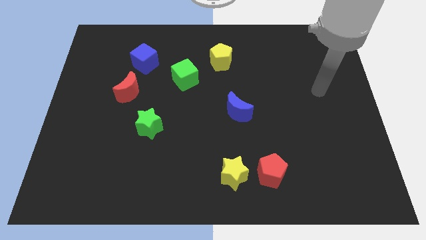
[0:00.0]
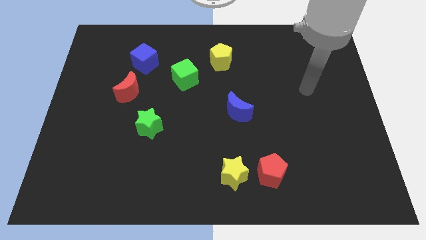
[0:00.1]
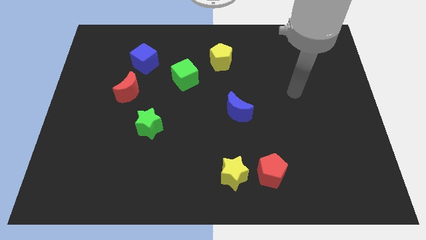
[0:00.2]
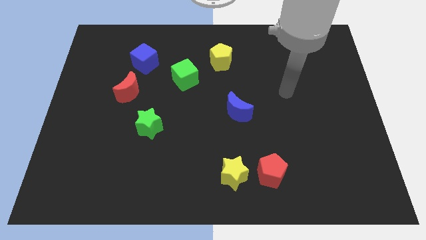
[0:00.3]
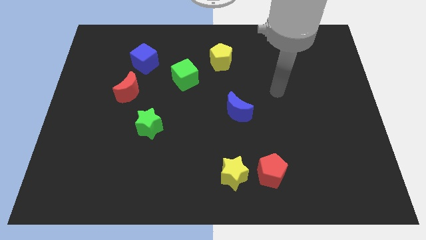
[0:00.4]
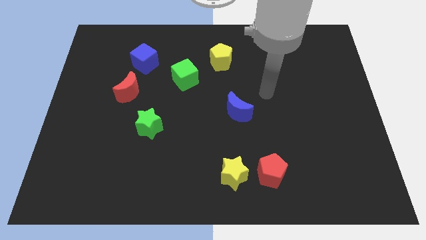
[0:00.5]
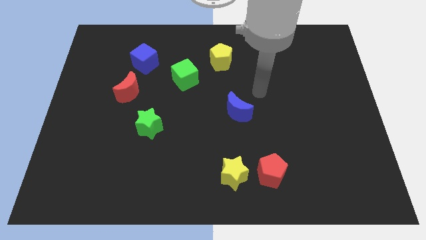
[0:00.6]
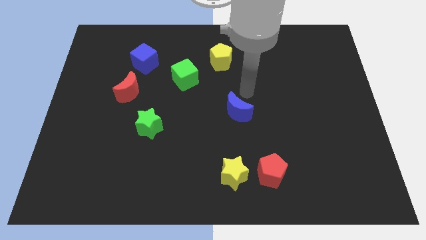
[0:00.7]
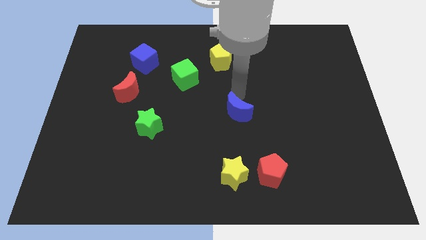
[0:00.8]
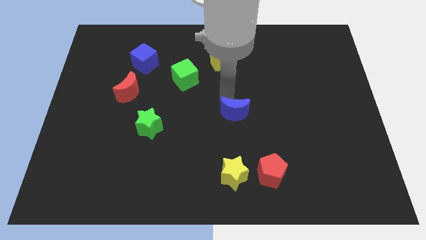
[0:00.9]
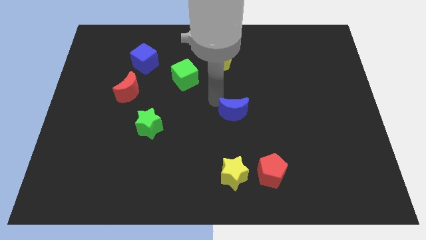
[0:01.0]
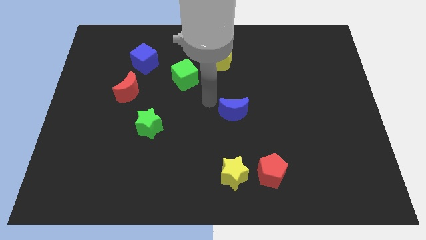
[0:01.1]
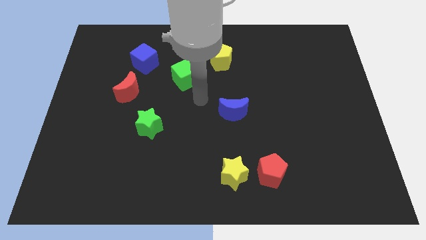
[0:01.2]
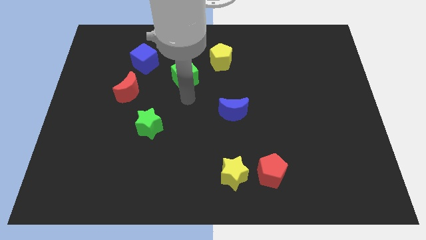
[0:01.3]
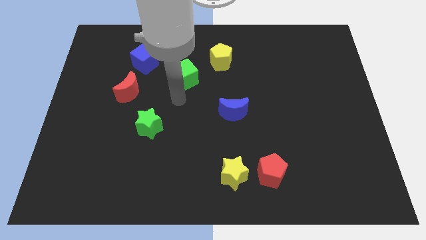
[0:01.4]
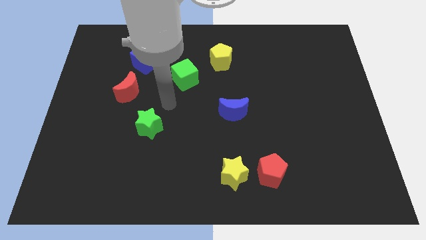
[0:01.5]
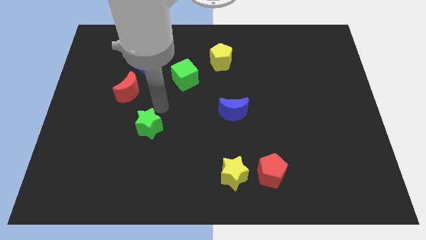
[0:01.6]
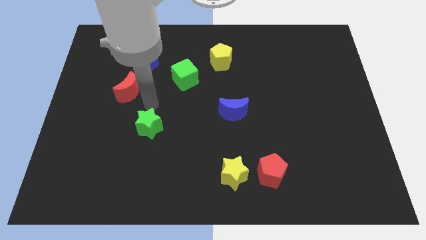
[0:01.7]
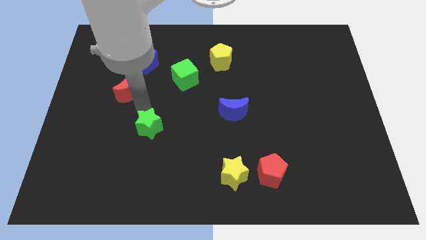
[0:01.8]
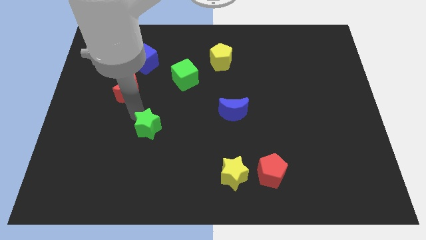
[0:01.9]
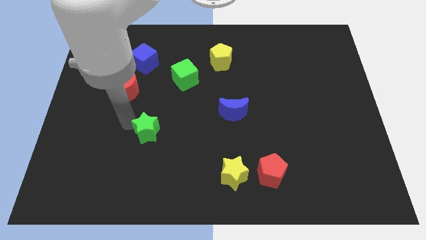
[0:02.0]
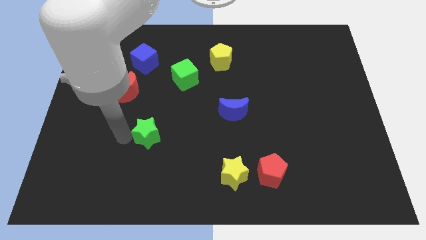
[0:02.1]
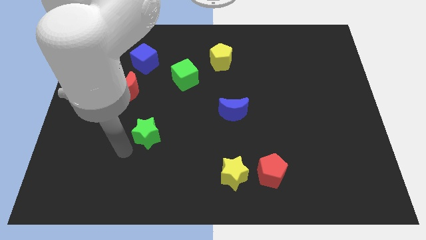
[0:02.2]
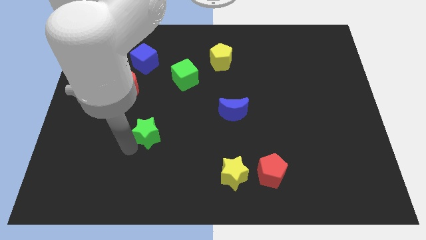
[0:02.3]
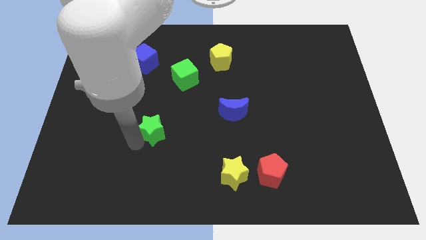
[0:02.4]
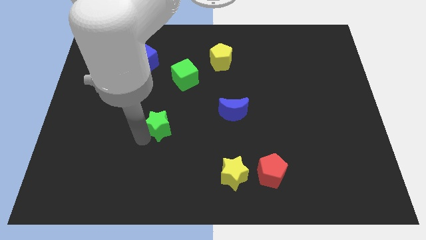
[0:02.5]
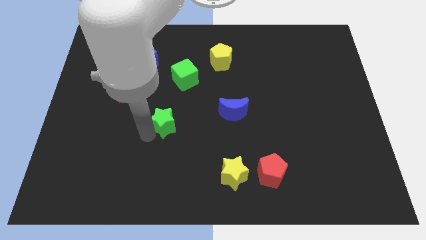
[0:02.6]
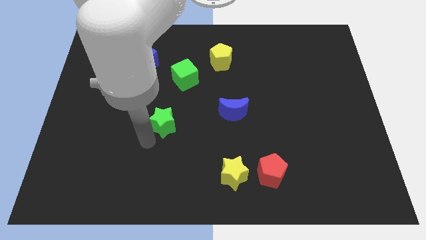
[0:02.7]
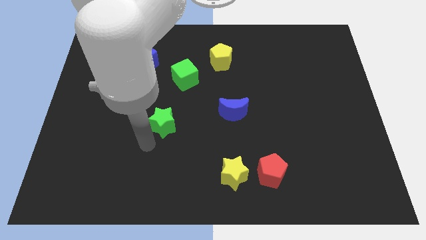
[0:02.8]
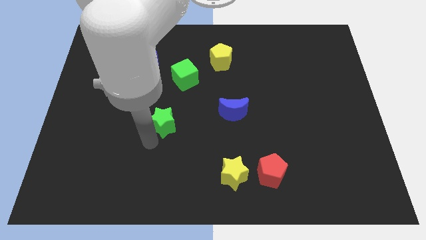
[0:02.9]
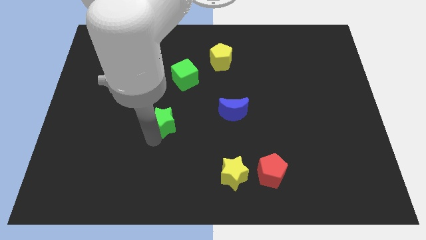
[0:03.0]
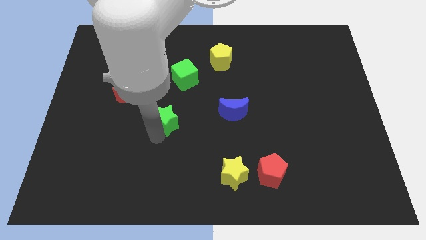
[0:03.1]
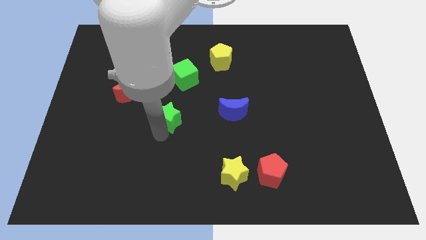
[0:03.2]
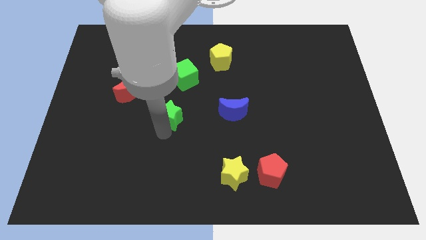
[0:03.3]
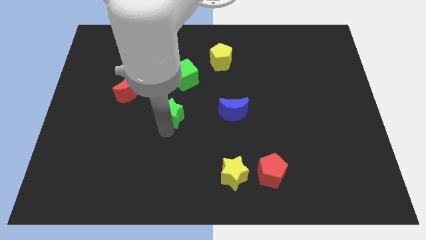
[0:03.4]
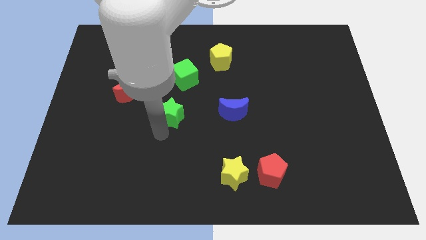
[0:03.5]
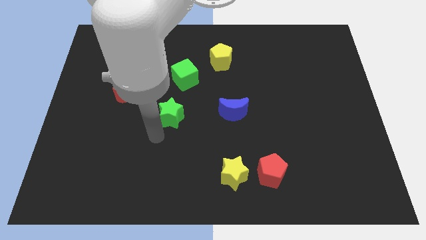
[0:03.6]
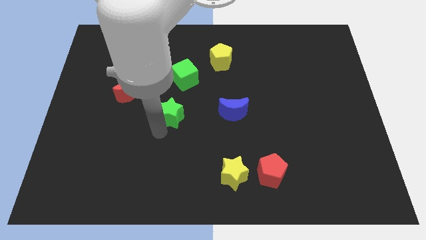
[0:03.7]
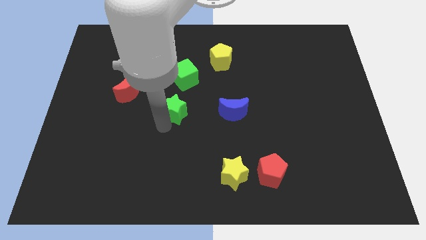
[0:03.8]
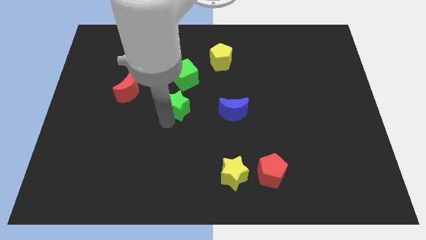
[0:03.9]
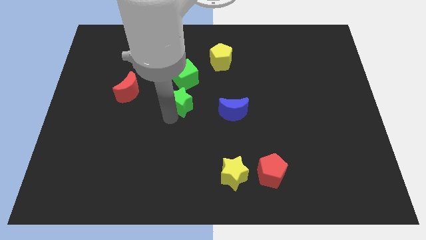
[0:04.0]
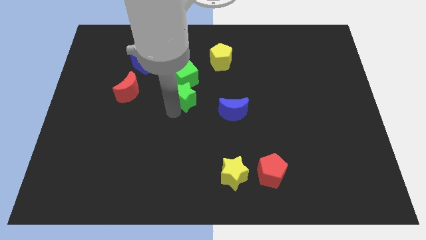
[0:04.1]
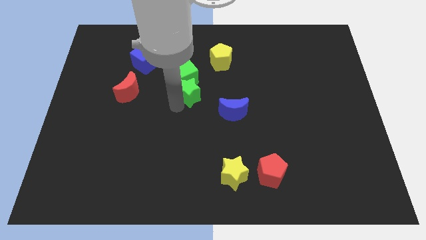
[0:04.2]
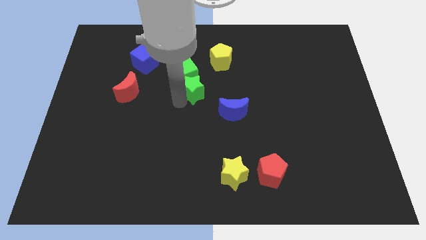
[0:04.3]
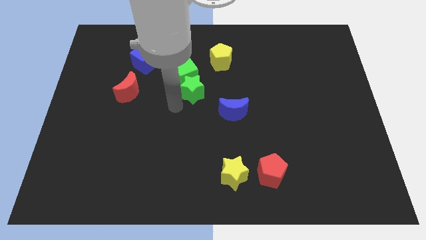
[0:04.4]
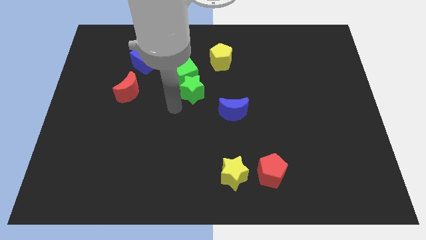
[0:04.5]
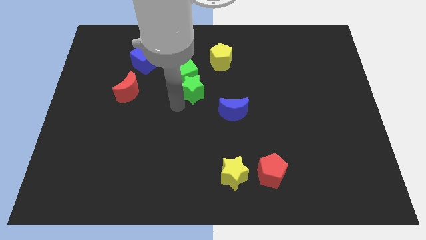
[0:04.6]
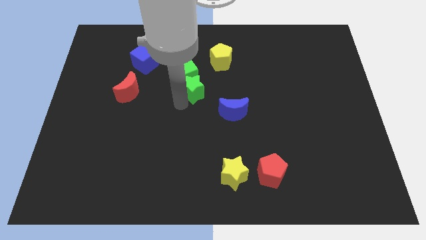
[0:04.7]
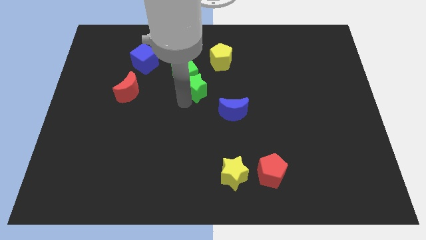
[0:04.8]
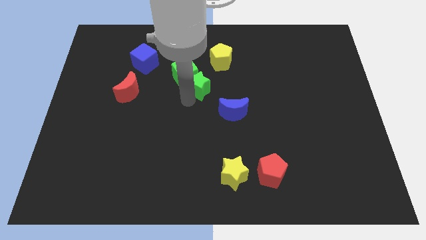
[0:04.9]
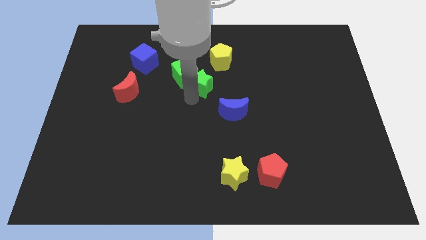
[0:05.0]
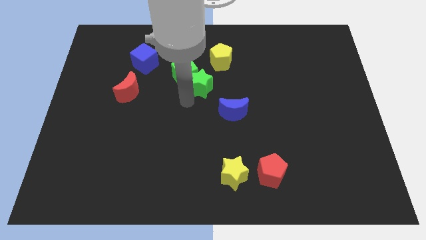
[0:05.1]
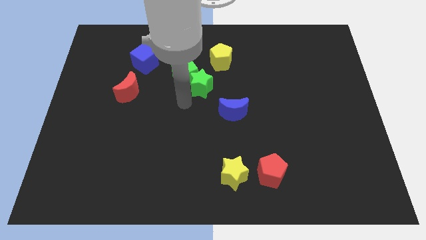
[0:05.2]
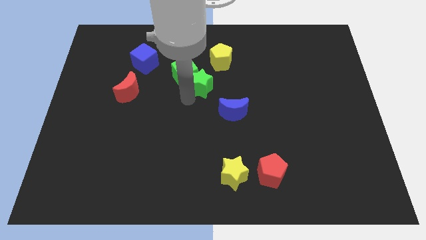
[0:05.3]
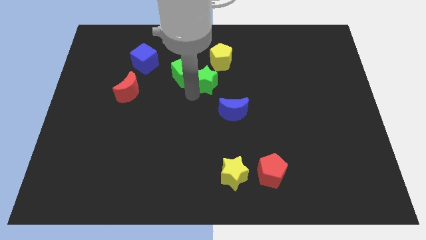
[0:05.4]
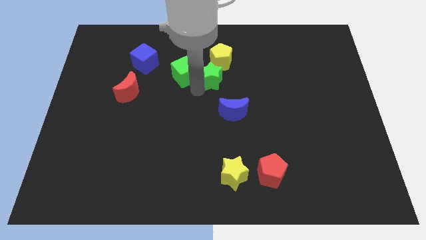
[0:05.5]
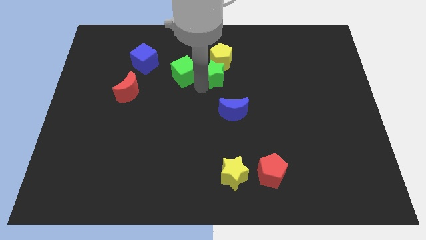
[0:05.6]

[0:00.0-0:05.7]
push the green star towards the yellow pentagon

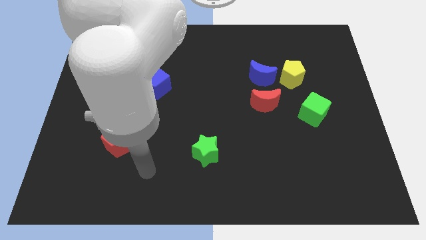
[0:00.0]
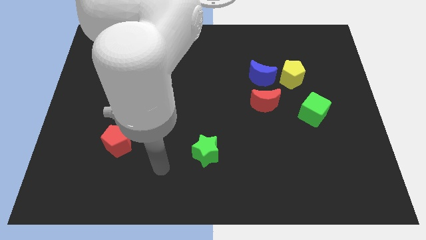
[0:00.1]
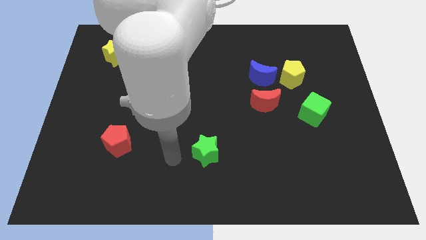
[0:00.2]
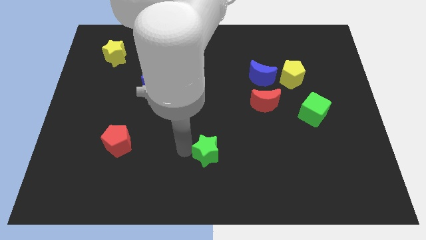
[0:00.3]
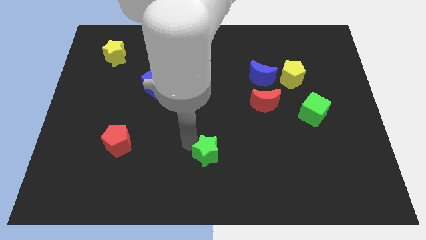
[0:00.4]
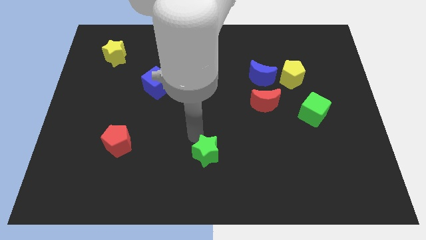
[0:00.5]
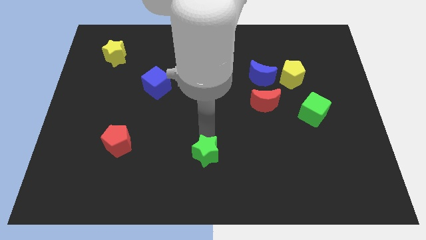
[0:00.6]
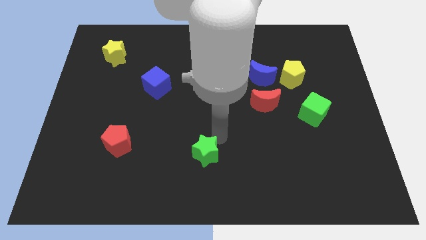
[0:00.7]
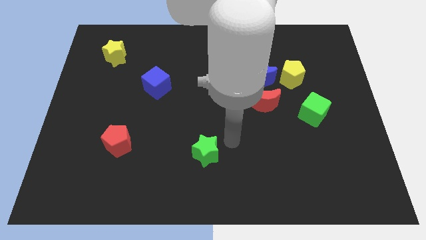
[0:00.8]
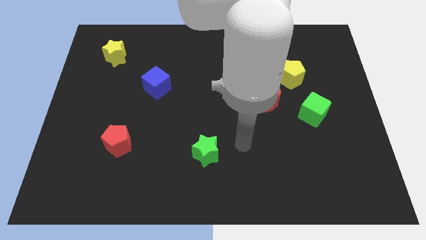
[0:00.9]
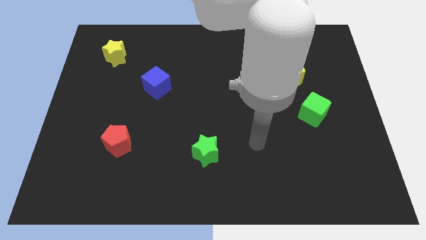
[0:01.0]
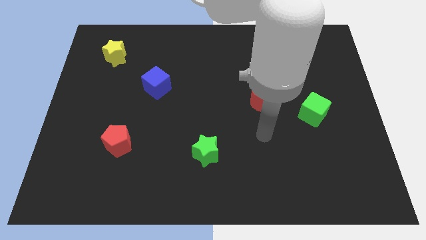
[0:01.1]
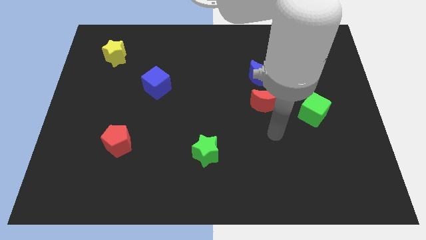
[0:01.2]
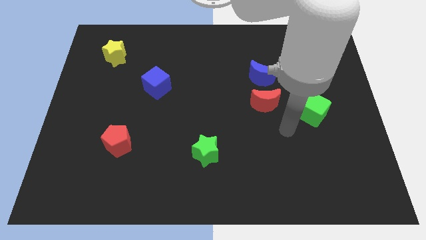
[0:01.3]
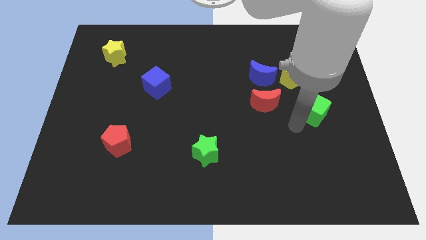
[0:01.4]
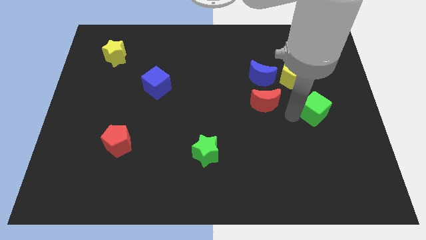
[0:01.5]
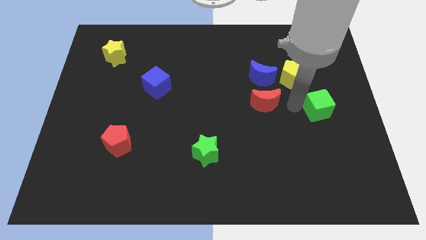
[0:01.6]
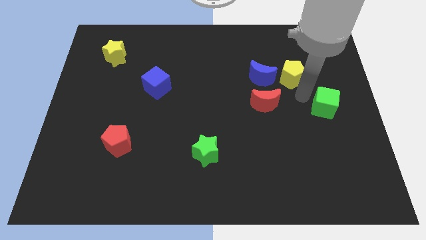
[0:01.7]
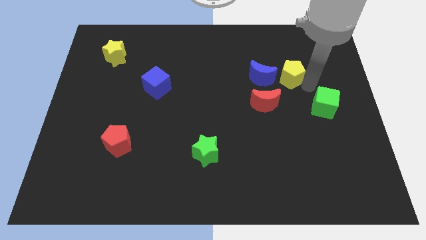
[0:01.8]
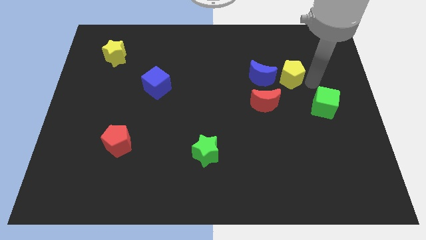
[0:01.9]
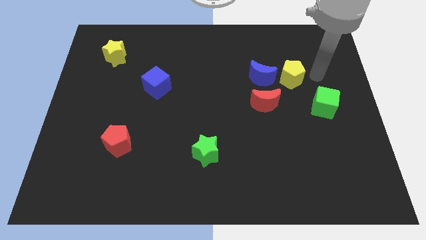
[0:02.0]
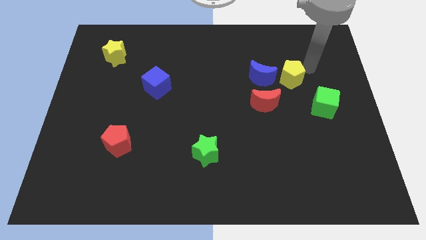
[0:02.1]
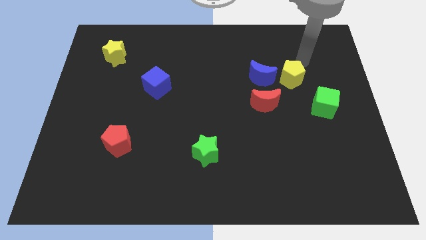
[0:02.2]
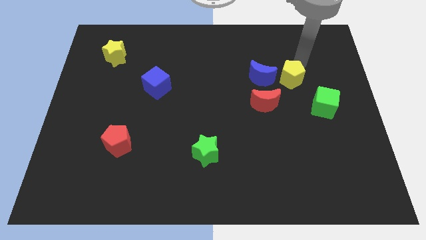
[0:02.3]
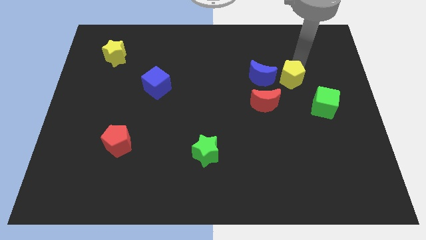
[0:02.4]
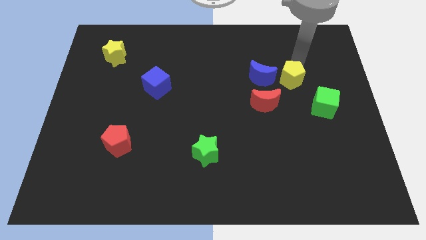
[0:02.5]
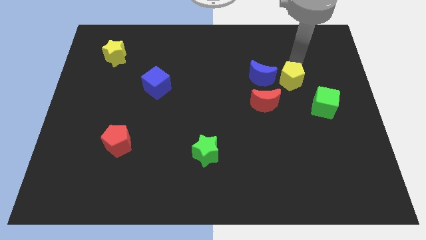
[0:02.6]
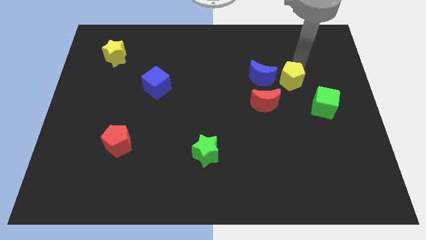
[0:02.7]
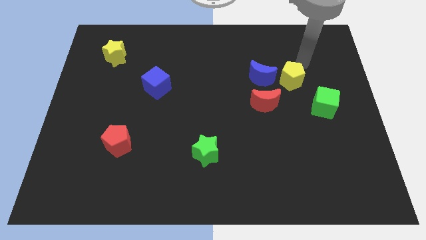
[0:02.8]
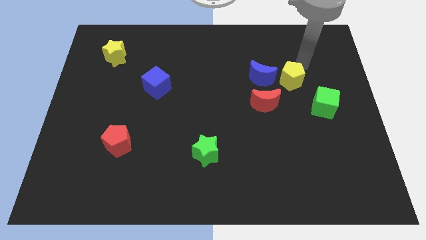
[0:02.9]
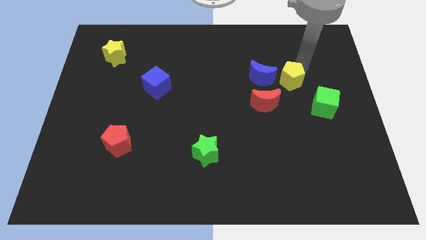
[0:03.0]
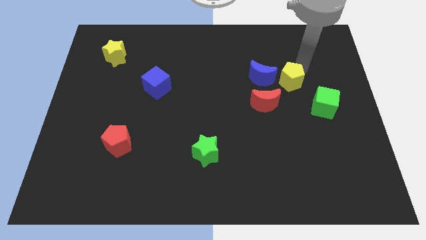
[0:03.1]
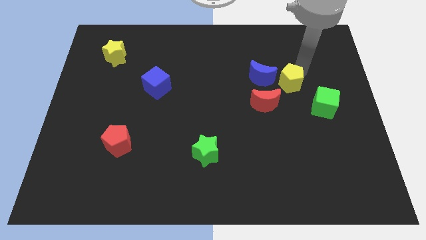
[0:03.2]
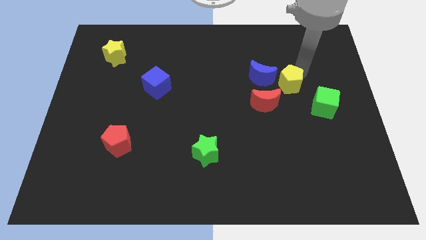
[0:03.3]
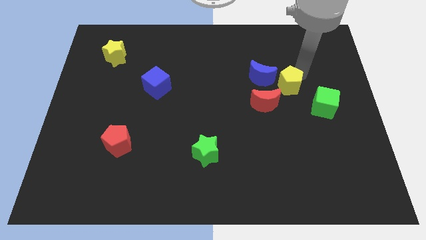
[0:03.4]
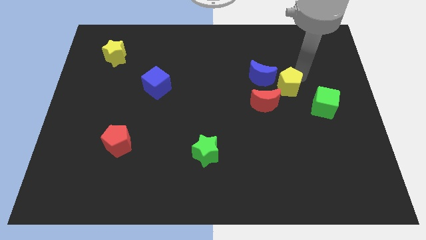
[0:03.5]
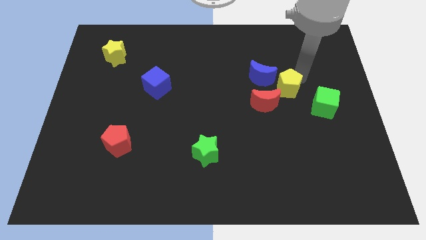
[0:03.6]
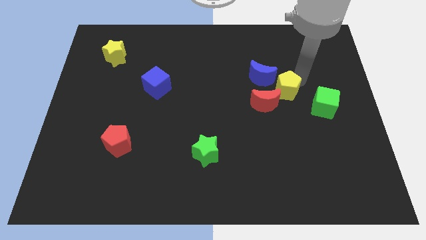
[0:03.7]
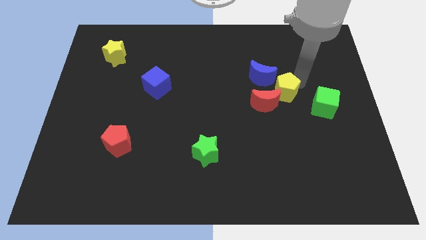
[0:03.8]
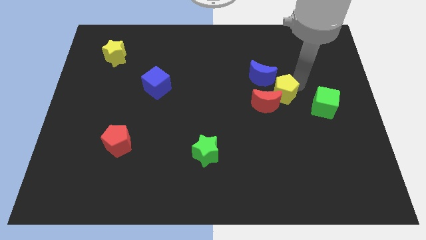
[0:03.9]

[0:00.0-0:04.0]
push the yellow pentagon close to the red moon
